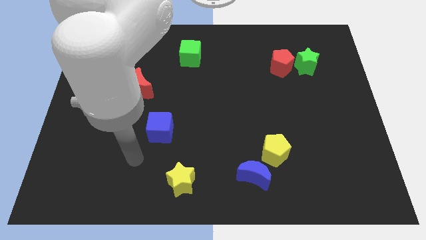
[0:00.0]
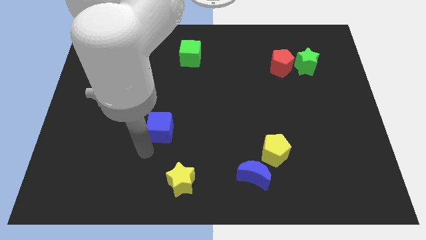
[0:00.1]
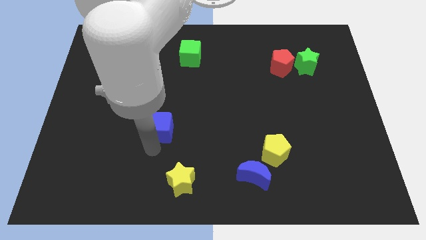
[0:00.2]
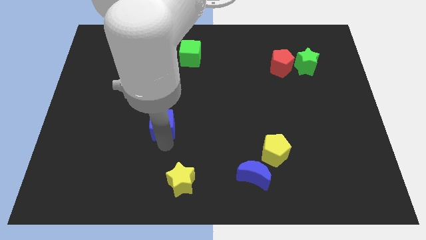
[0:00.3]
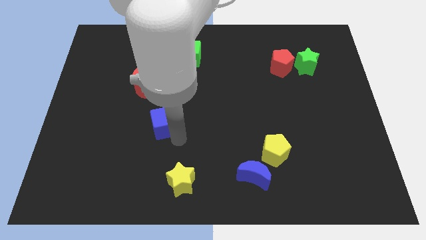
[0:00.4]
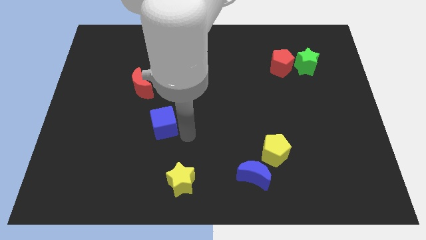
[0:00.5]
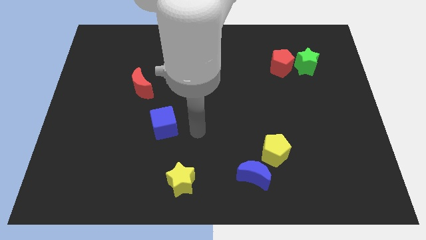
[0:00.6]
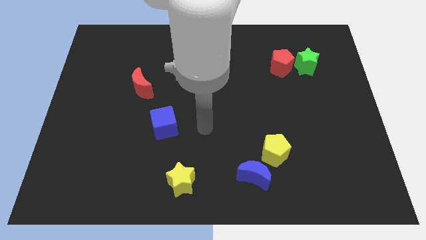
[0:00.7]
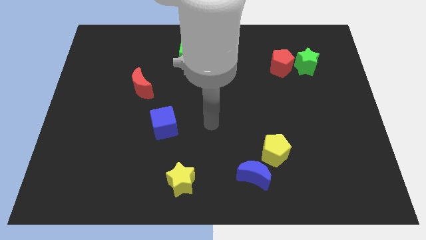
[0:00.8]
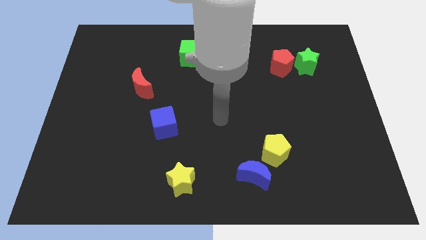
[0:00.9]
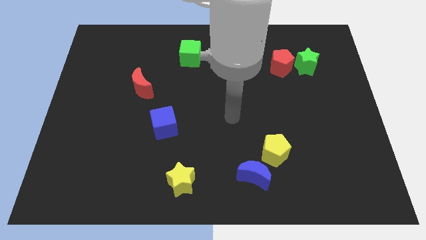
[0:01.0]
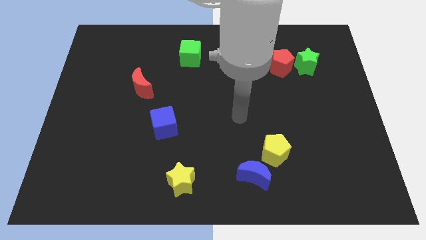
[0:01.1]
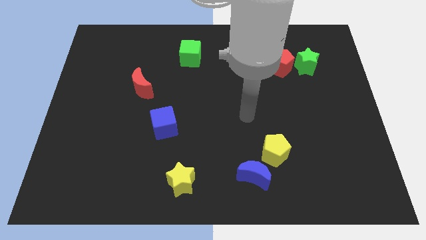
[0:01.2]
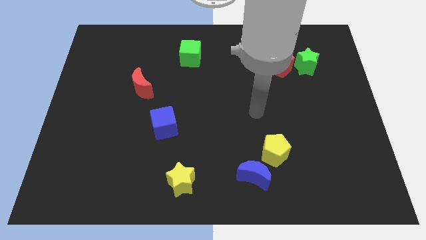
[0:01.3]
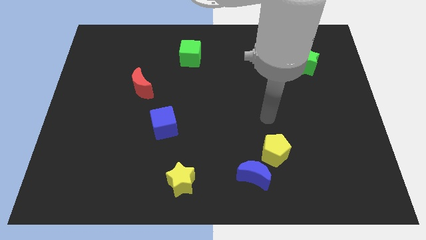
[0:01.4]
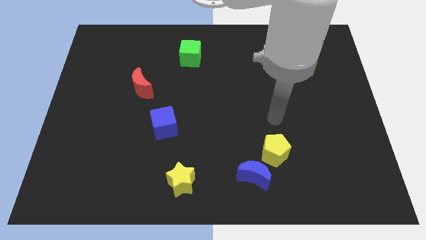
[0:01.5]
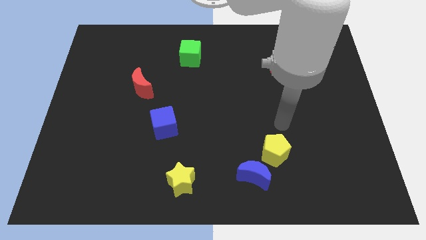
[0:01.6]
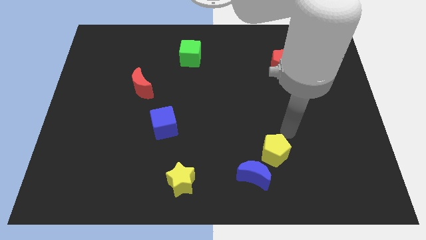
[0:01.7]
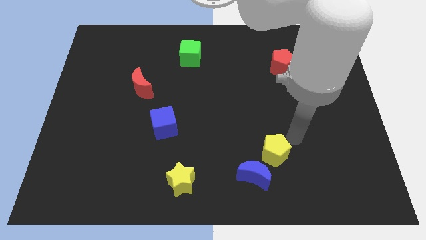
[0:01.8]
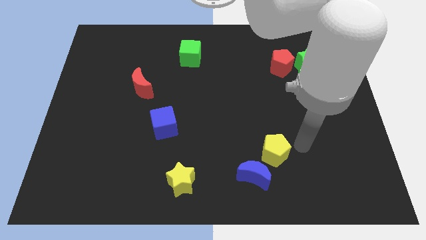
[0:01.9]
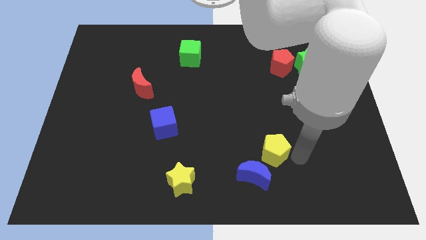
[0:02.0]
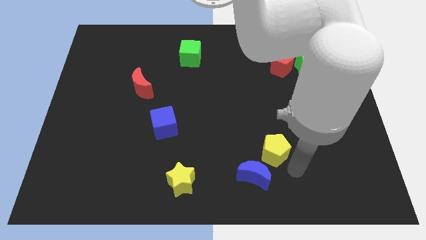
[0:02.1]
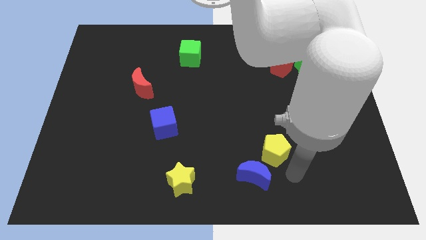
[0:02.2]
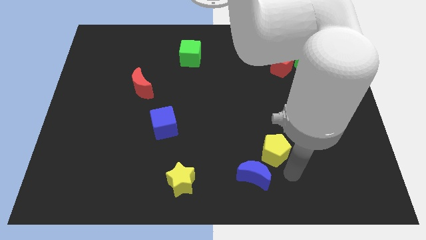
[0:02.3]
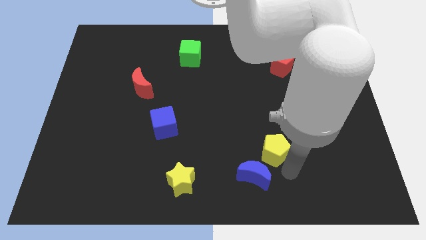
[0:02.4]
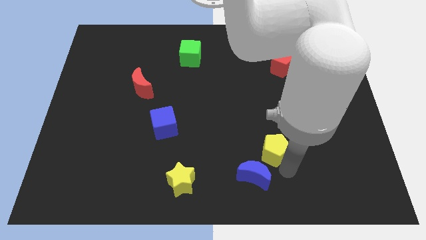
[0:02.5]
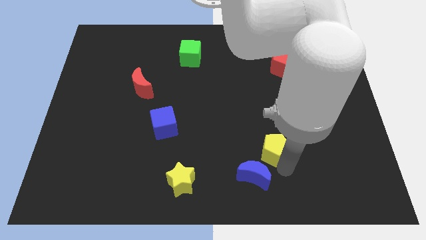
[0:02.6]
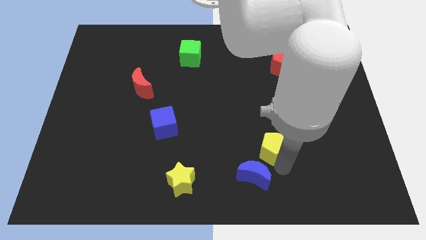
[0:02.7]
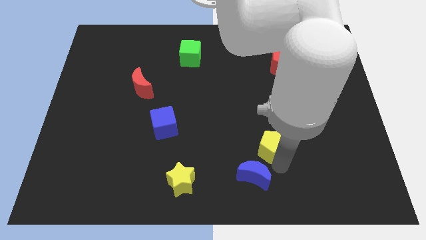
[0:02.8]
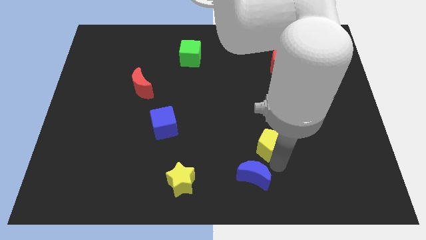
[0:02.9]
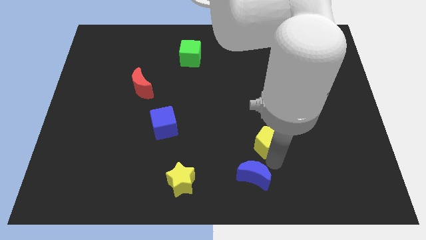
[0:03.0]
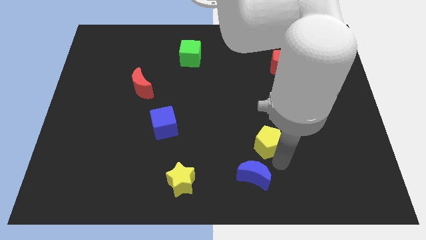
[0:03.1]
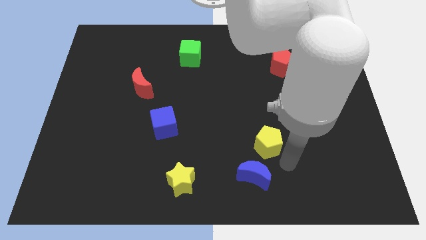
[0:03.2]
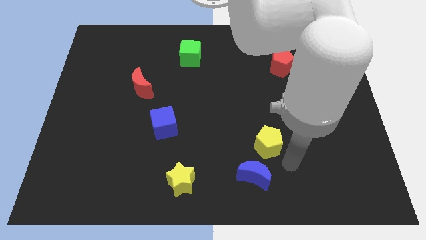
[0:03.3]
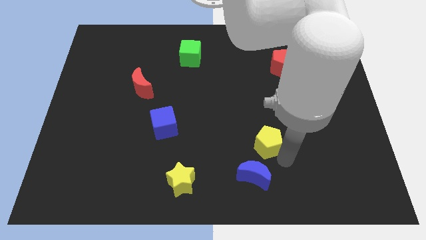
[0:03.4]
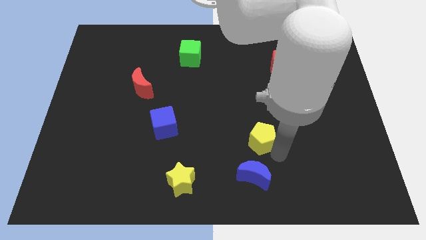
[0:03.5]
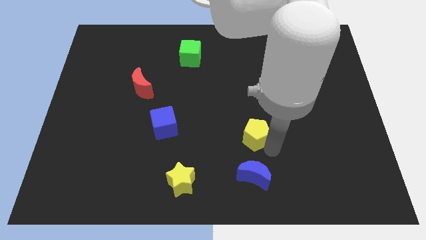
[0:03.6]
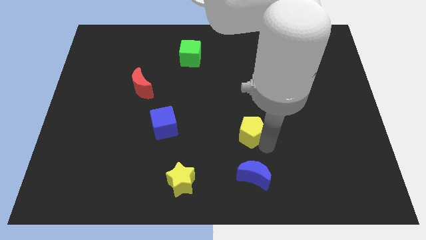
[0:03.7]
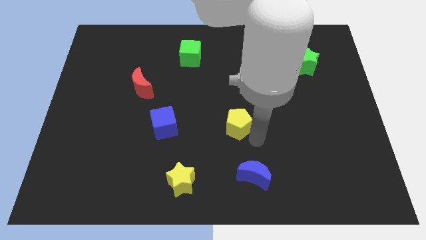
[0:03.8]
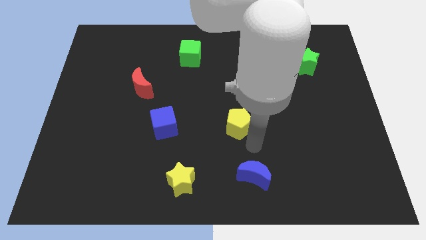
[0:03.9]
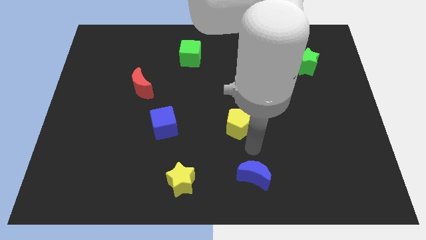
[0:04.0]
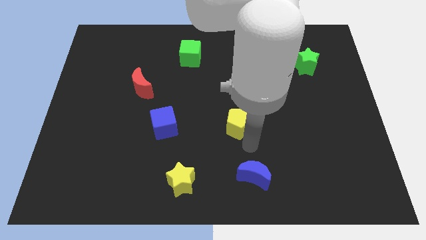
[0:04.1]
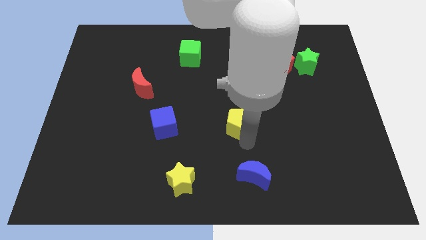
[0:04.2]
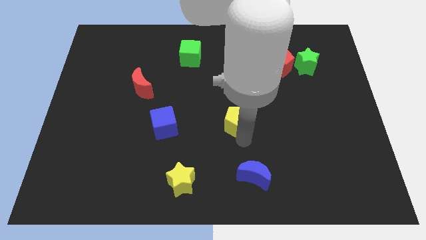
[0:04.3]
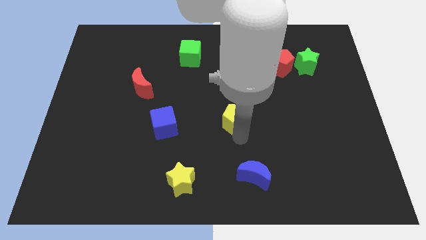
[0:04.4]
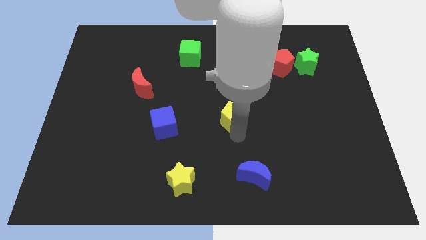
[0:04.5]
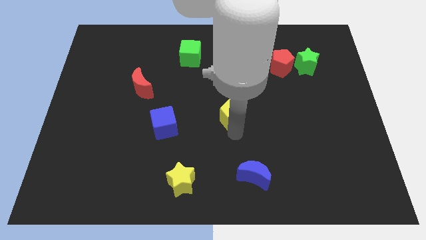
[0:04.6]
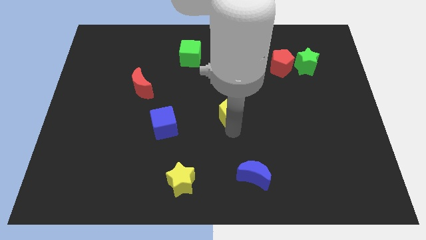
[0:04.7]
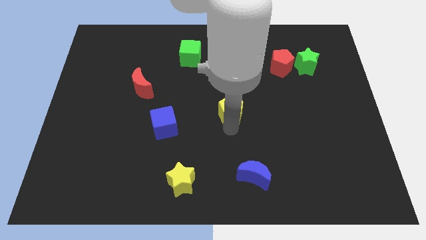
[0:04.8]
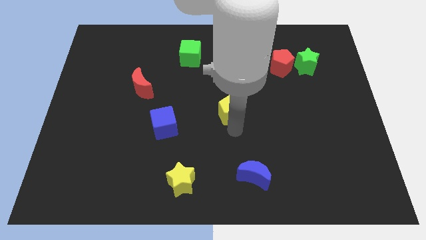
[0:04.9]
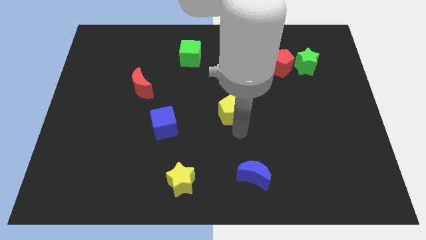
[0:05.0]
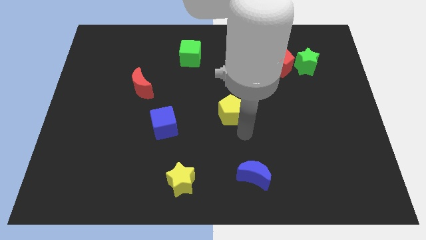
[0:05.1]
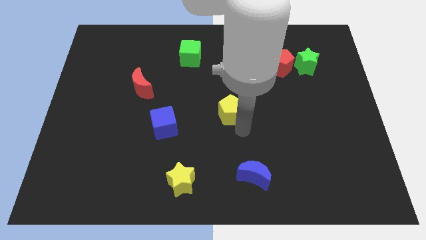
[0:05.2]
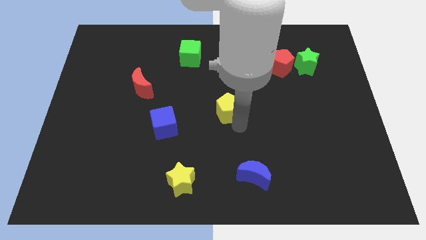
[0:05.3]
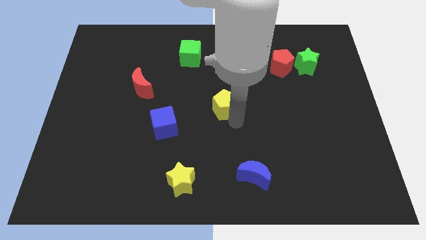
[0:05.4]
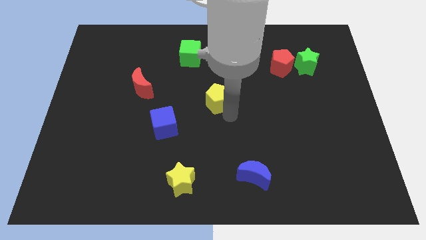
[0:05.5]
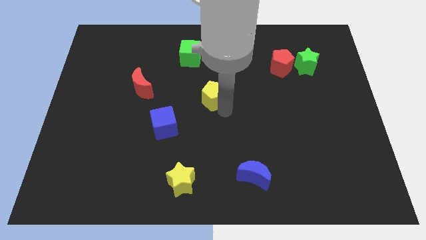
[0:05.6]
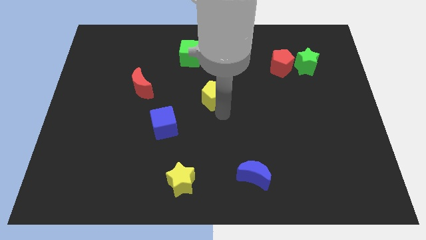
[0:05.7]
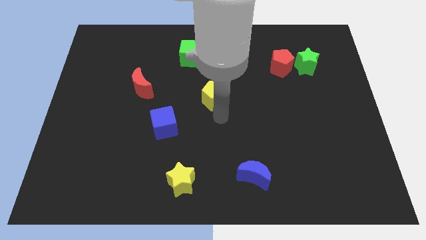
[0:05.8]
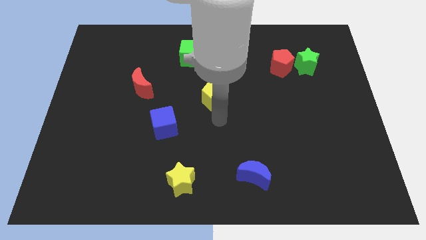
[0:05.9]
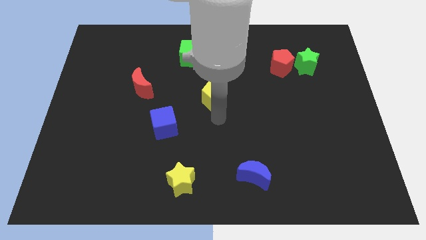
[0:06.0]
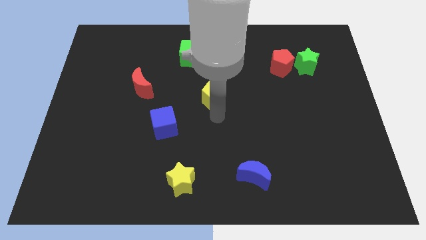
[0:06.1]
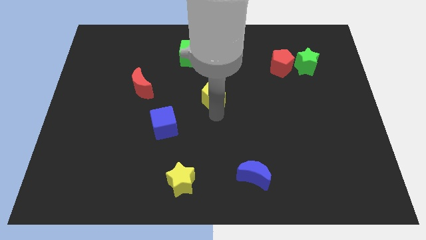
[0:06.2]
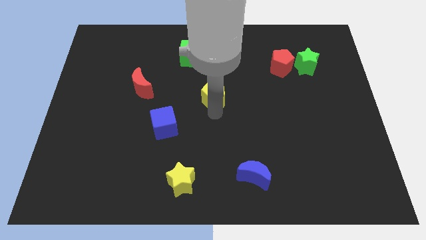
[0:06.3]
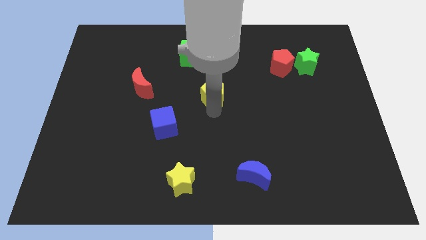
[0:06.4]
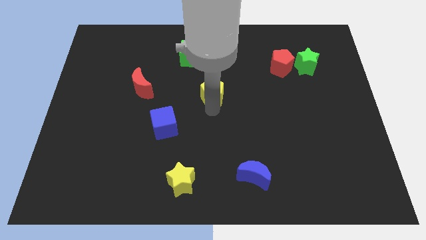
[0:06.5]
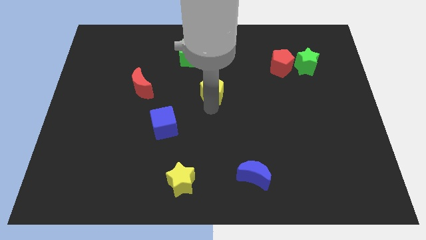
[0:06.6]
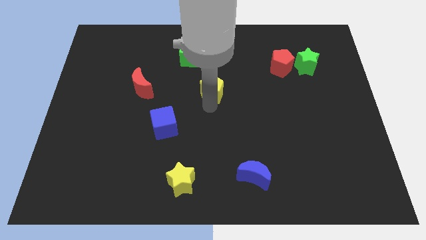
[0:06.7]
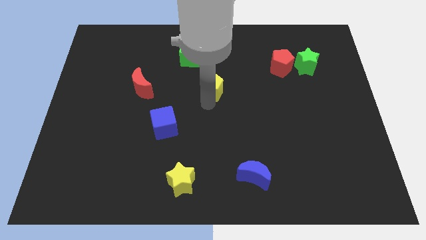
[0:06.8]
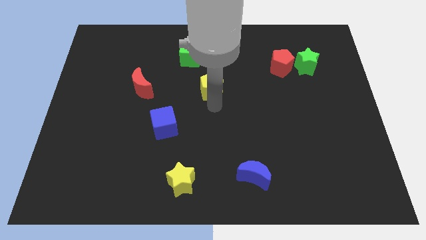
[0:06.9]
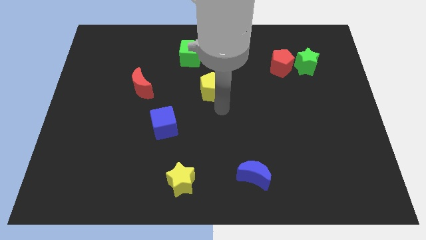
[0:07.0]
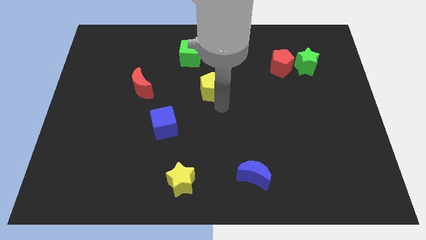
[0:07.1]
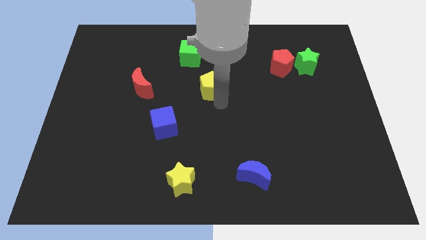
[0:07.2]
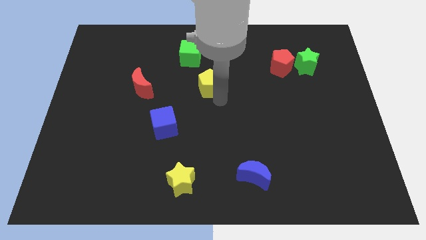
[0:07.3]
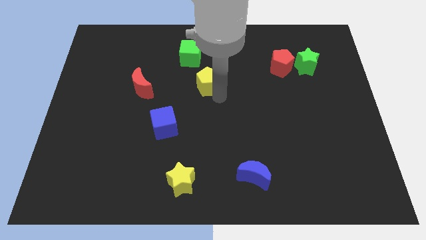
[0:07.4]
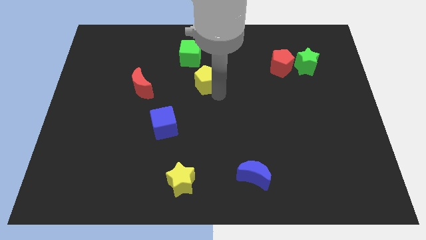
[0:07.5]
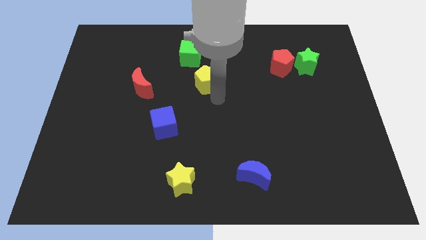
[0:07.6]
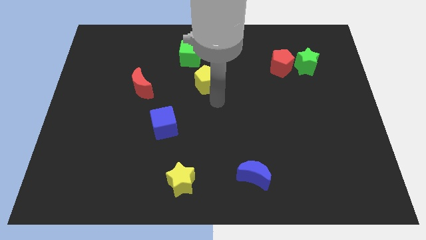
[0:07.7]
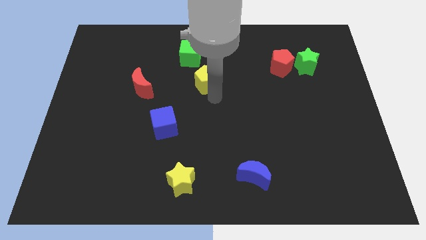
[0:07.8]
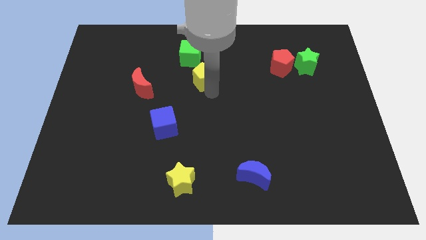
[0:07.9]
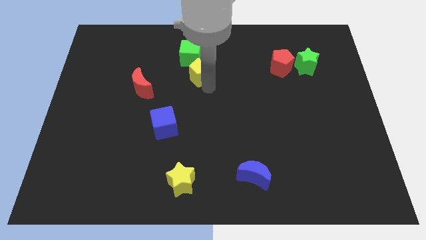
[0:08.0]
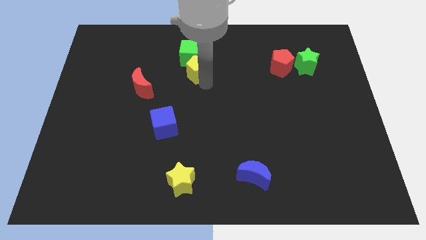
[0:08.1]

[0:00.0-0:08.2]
slide the yellow pentagon towards the green cube

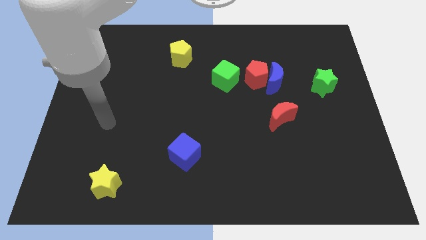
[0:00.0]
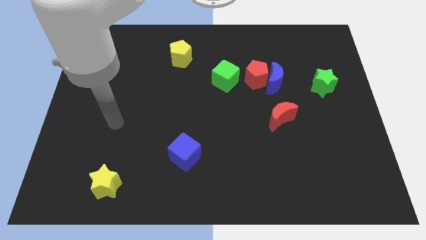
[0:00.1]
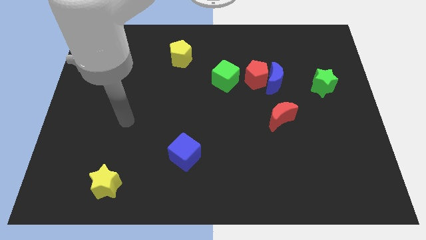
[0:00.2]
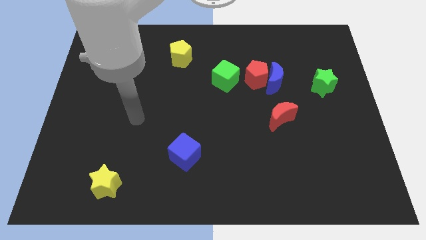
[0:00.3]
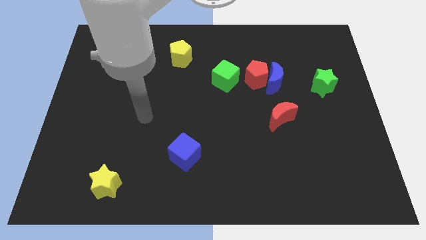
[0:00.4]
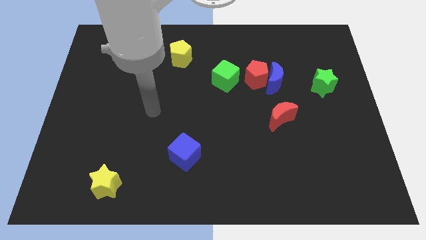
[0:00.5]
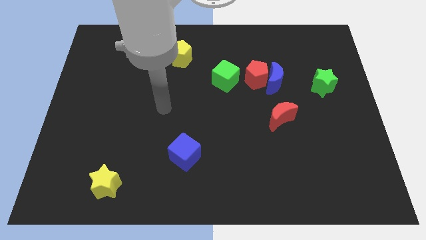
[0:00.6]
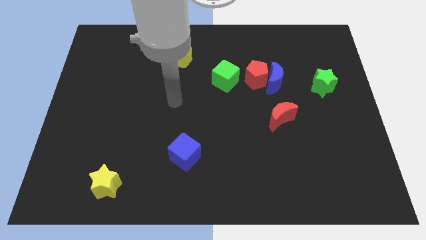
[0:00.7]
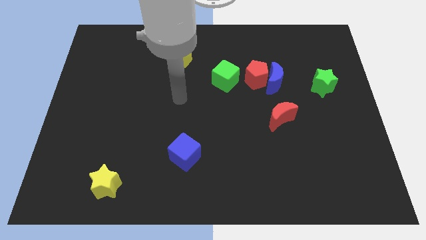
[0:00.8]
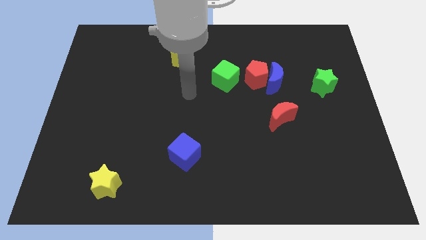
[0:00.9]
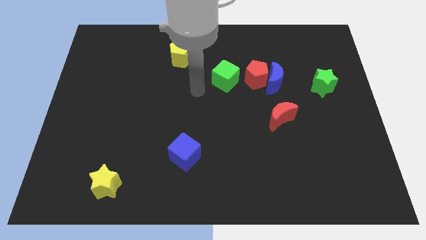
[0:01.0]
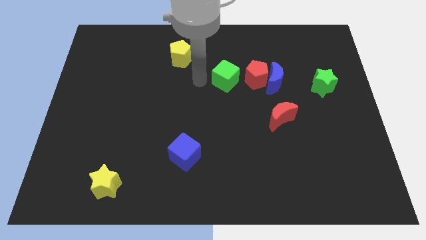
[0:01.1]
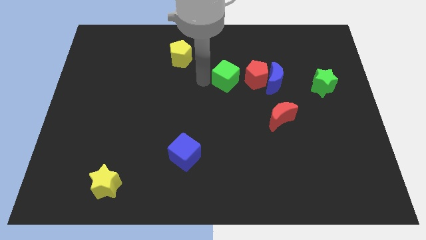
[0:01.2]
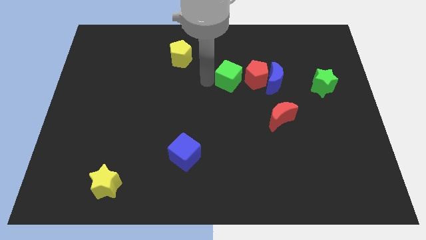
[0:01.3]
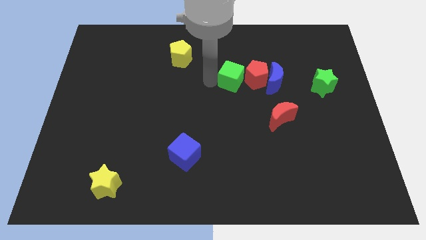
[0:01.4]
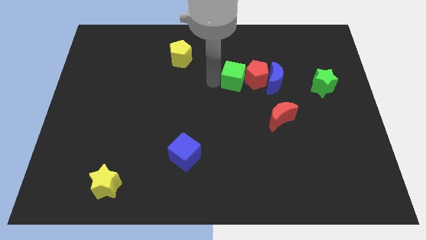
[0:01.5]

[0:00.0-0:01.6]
slide the green cube to the red pentagon
